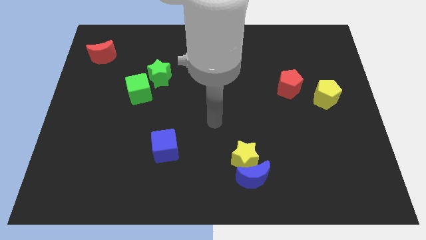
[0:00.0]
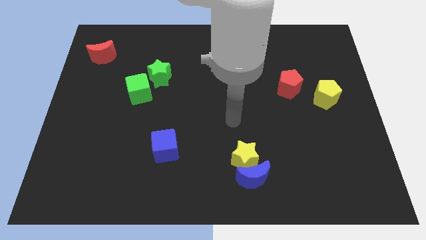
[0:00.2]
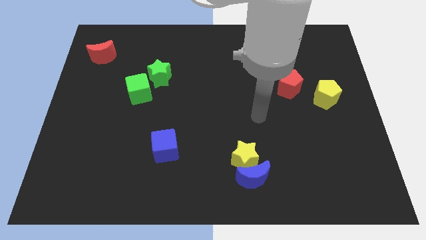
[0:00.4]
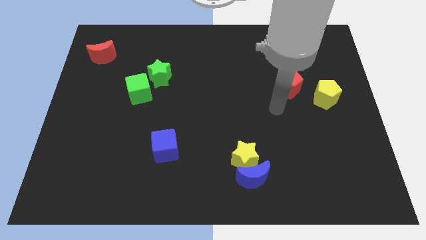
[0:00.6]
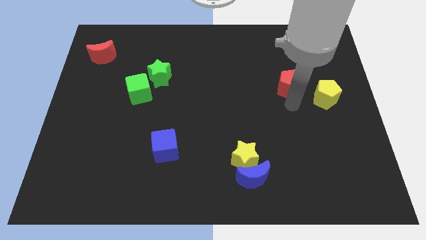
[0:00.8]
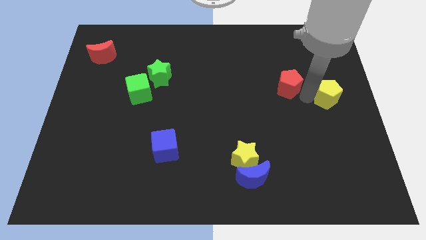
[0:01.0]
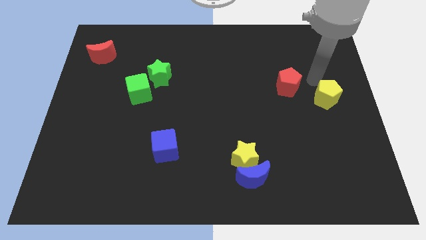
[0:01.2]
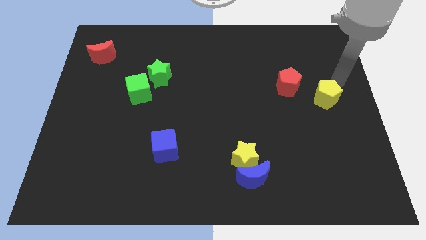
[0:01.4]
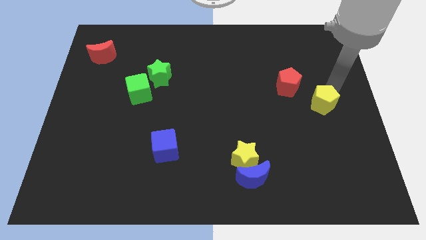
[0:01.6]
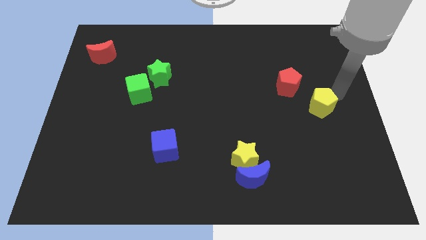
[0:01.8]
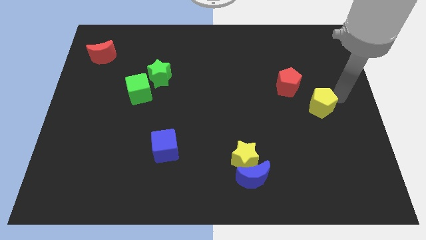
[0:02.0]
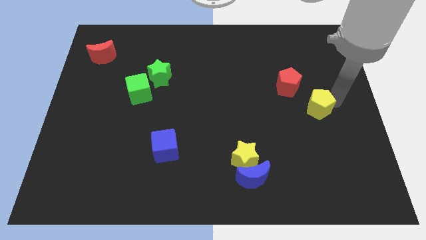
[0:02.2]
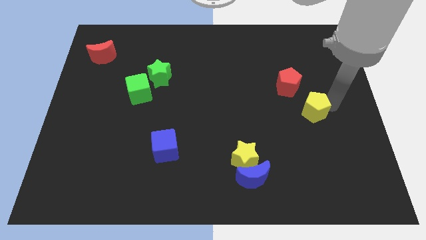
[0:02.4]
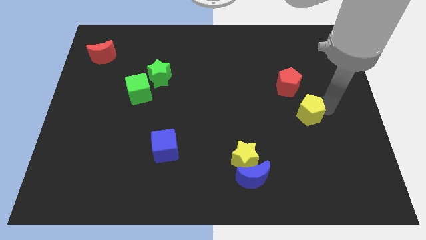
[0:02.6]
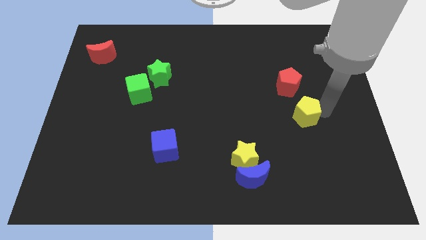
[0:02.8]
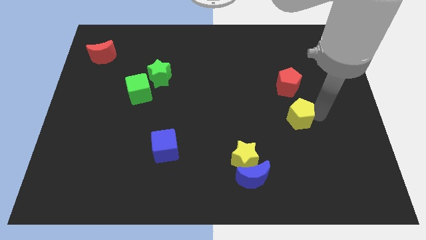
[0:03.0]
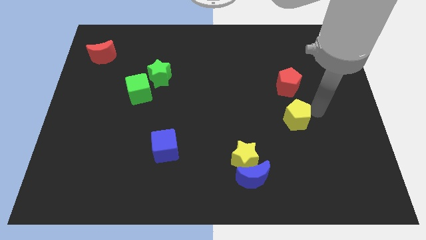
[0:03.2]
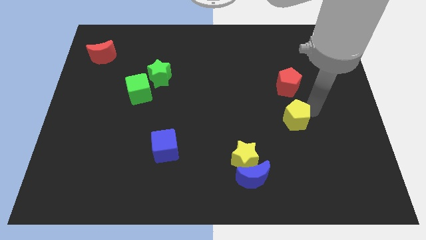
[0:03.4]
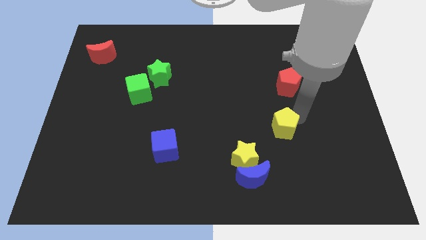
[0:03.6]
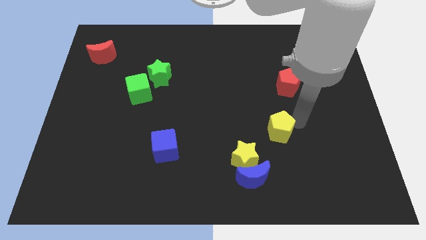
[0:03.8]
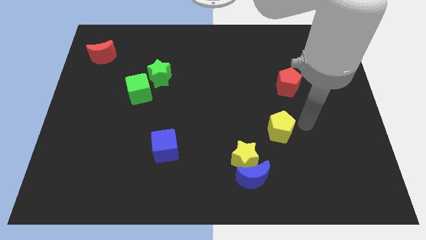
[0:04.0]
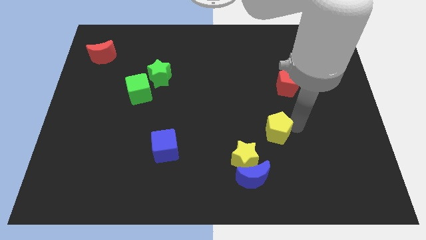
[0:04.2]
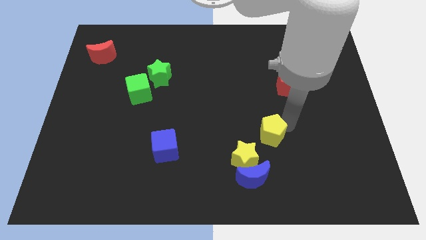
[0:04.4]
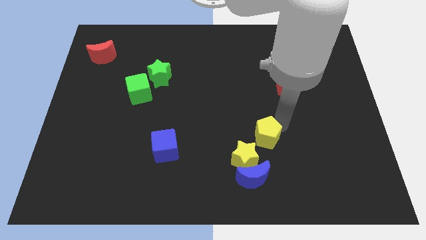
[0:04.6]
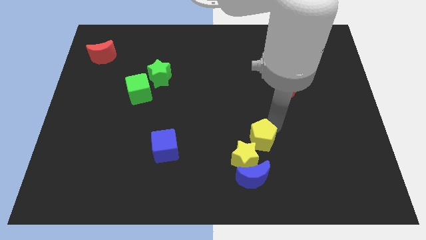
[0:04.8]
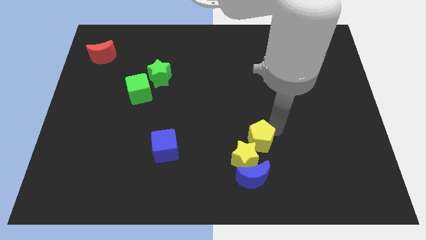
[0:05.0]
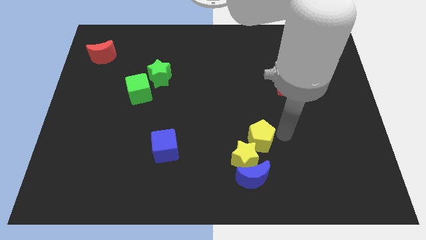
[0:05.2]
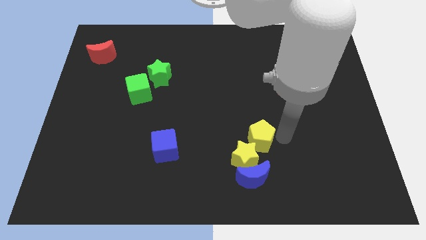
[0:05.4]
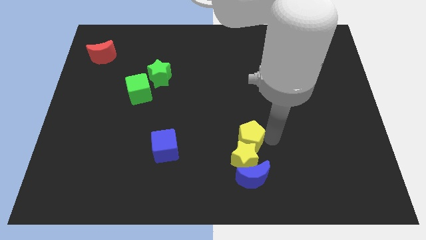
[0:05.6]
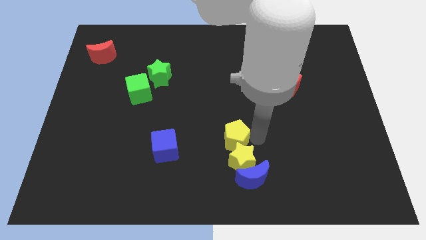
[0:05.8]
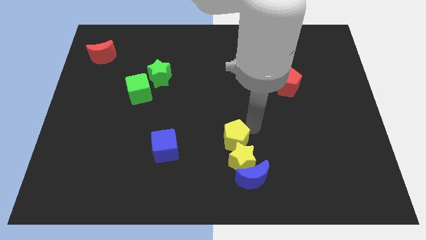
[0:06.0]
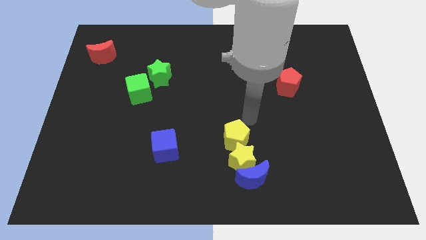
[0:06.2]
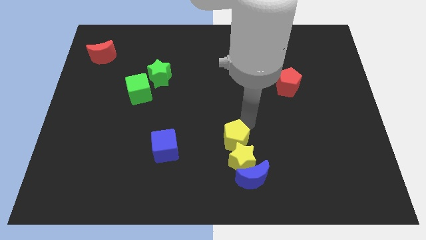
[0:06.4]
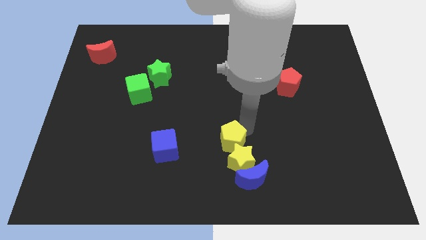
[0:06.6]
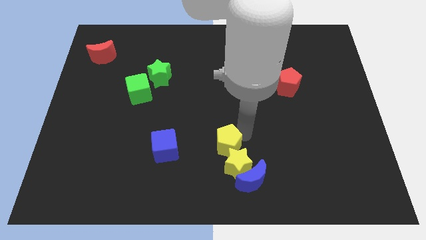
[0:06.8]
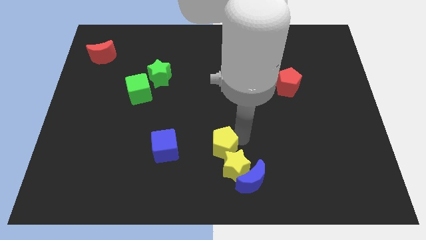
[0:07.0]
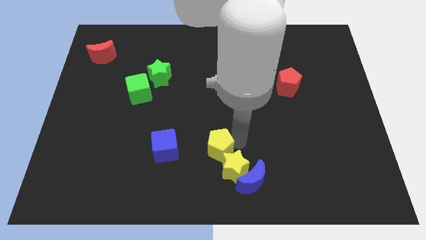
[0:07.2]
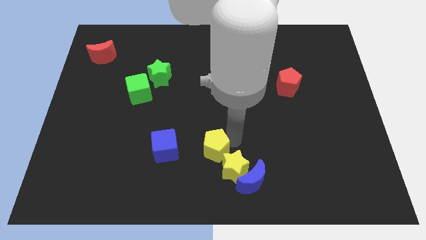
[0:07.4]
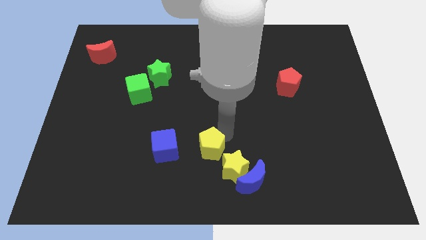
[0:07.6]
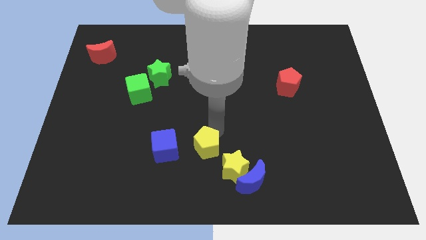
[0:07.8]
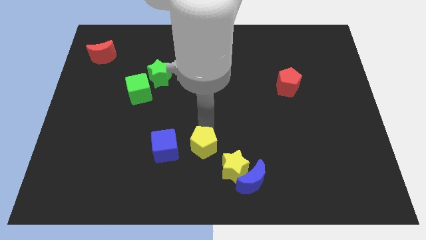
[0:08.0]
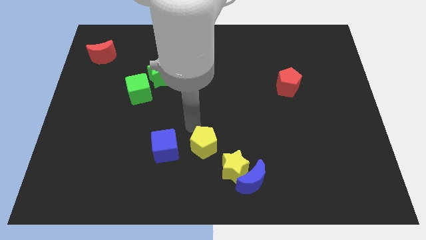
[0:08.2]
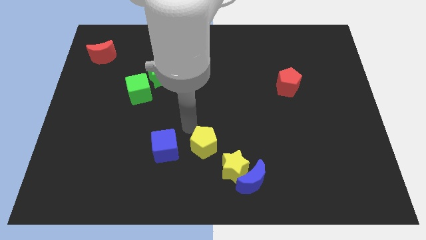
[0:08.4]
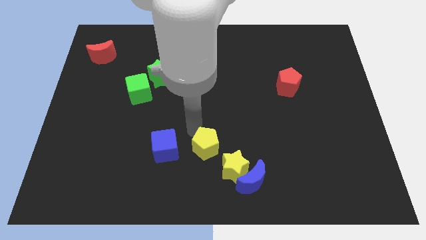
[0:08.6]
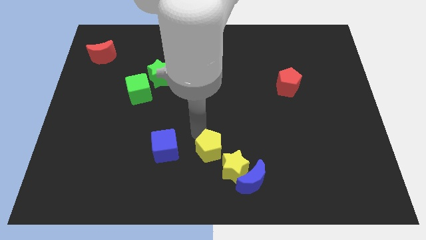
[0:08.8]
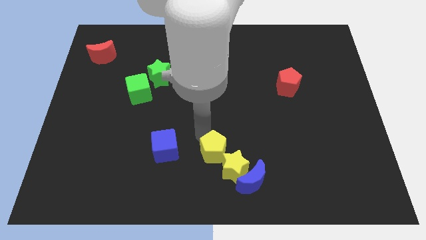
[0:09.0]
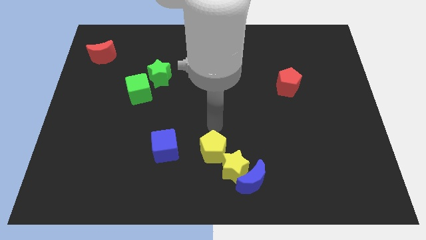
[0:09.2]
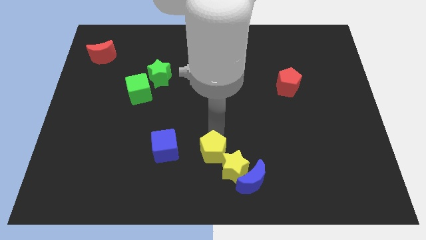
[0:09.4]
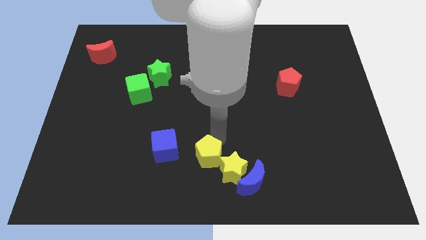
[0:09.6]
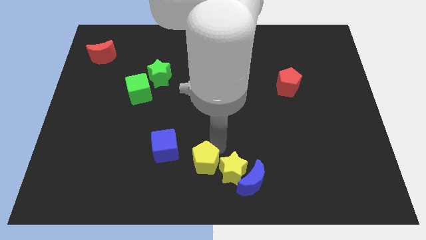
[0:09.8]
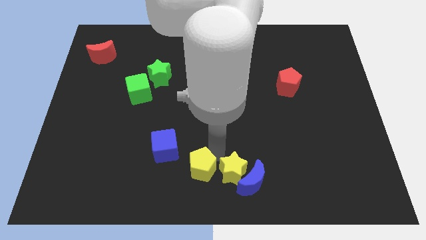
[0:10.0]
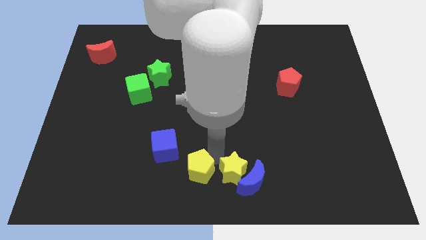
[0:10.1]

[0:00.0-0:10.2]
move the yellow pentagon to the bottom left of the yellow star

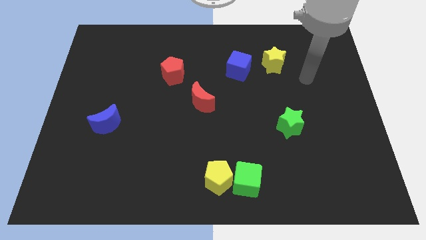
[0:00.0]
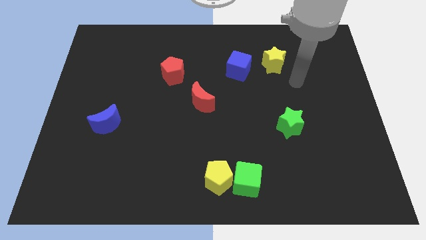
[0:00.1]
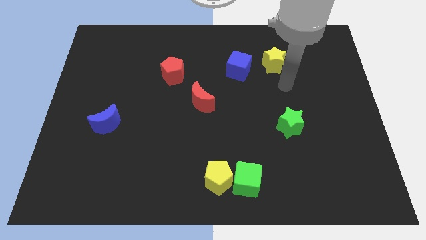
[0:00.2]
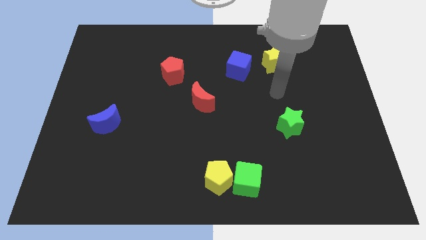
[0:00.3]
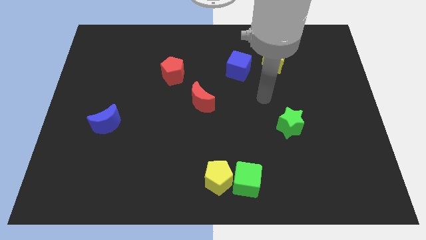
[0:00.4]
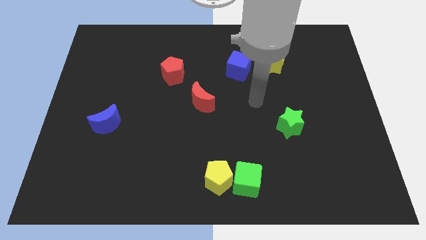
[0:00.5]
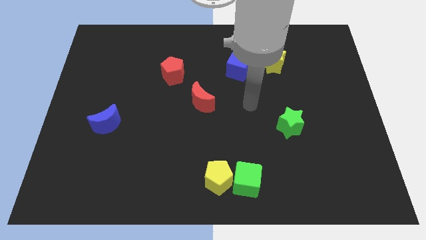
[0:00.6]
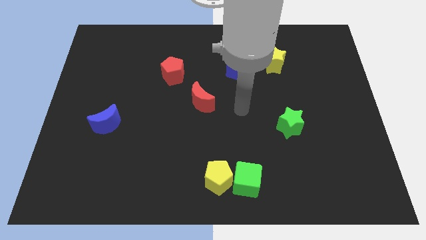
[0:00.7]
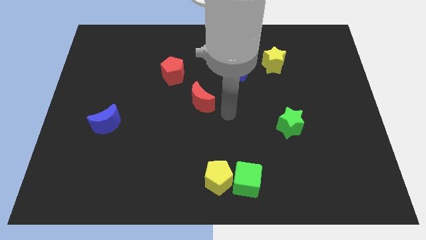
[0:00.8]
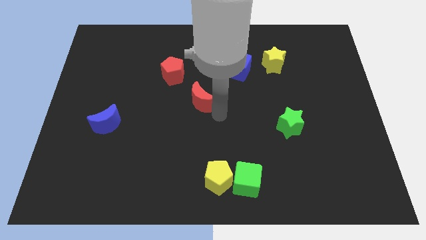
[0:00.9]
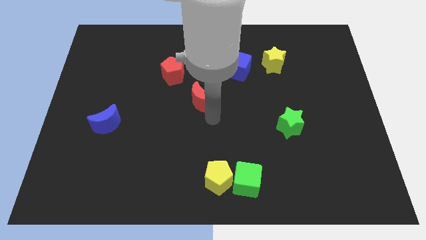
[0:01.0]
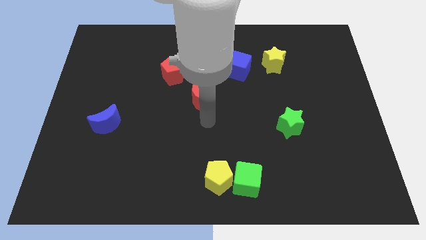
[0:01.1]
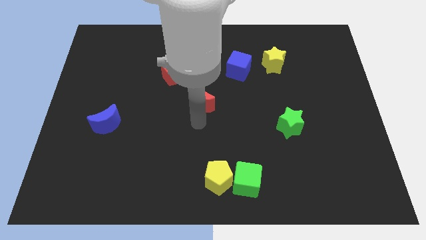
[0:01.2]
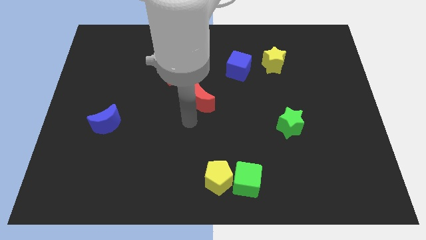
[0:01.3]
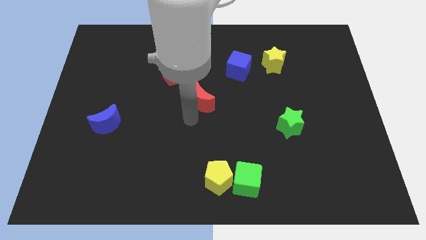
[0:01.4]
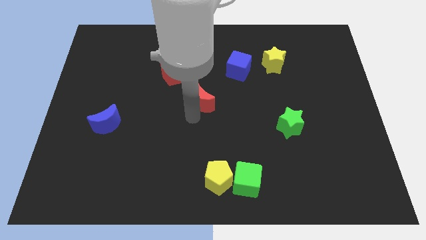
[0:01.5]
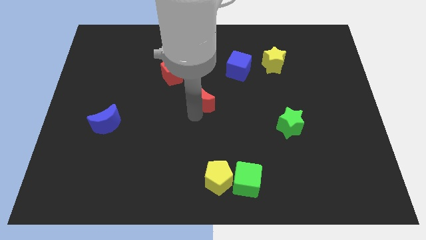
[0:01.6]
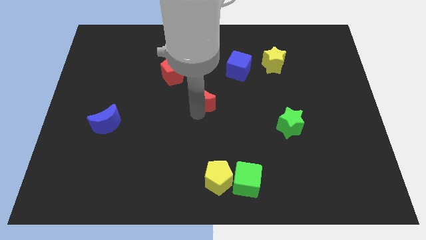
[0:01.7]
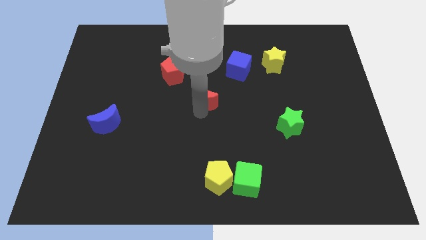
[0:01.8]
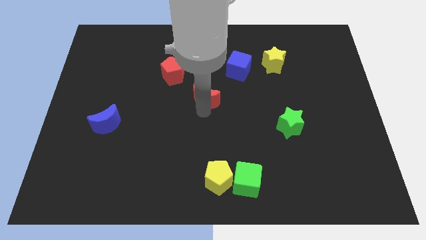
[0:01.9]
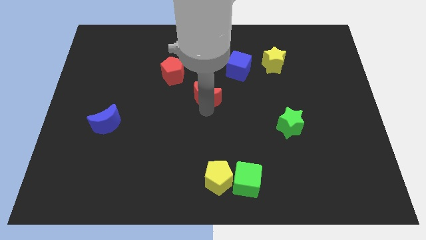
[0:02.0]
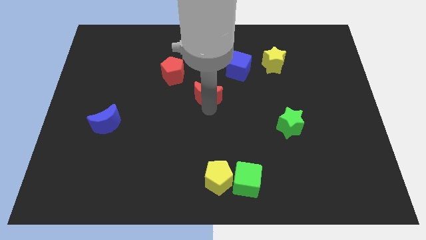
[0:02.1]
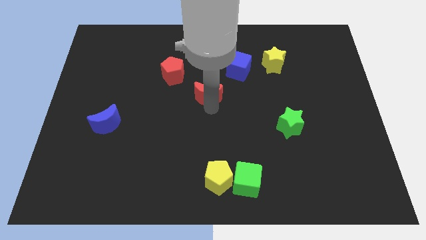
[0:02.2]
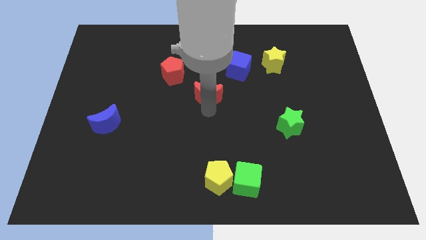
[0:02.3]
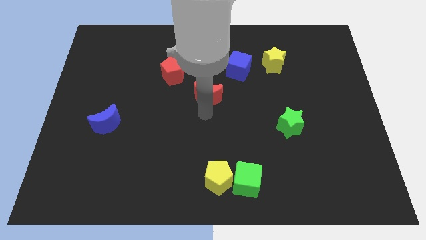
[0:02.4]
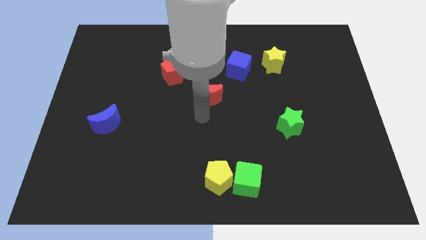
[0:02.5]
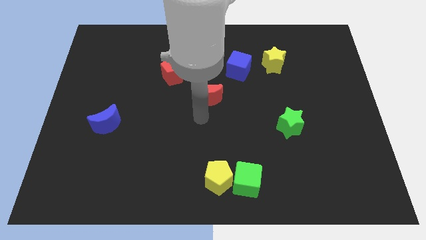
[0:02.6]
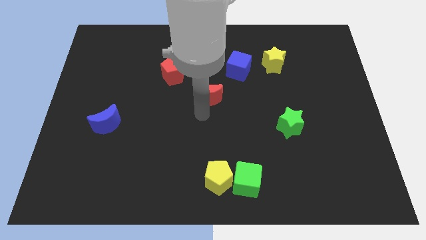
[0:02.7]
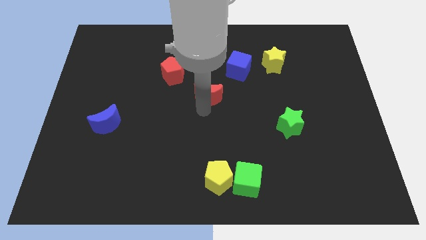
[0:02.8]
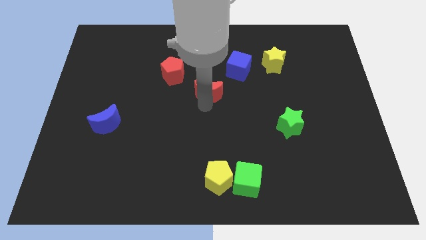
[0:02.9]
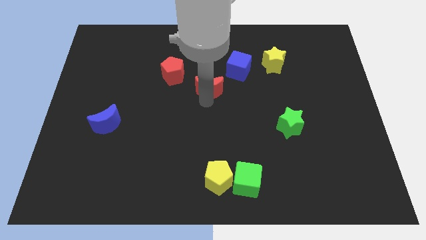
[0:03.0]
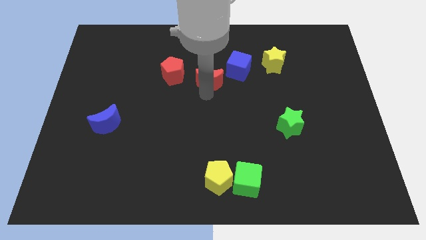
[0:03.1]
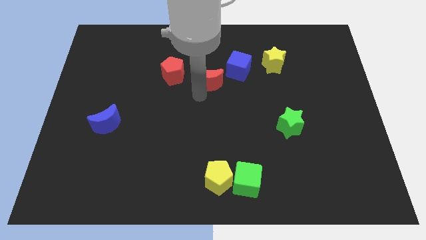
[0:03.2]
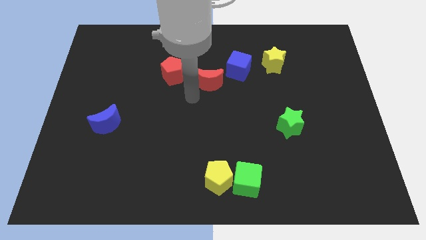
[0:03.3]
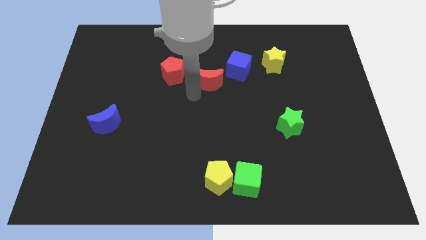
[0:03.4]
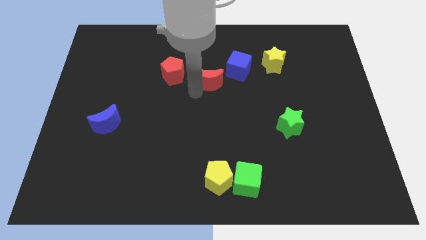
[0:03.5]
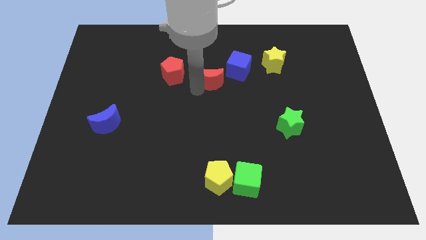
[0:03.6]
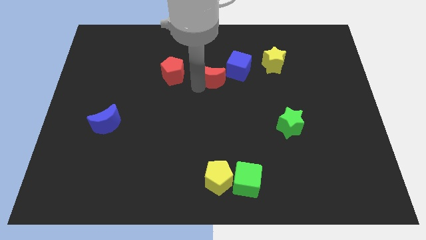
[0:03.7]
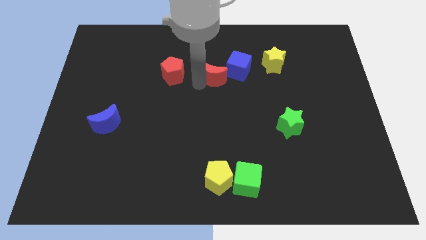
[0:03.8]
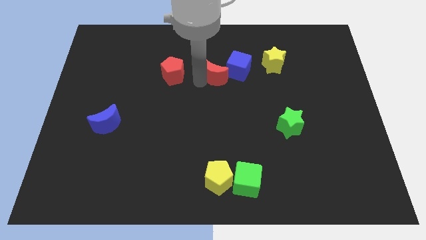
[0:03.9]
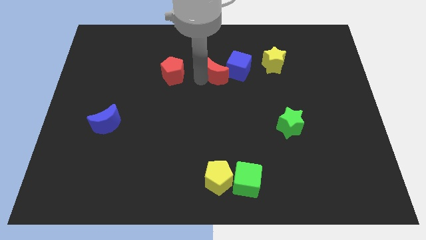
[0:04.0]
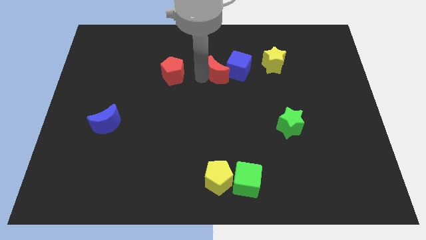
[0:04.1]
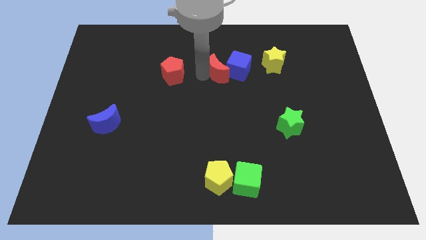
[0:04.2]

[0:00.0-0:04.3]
move the red moon to the left of the yellow star
